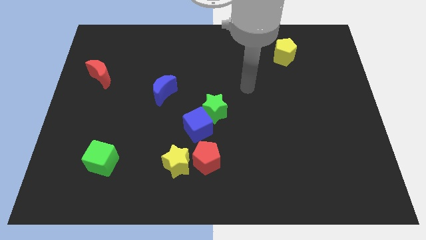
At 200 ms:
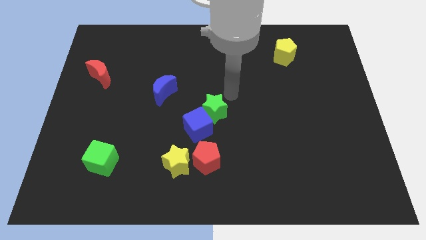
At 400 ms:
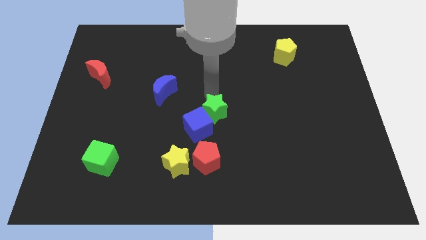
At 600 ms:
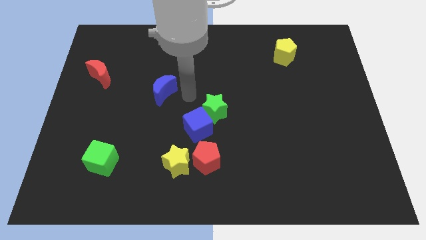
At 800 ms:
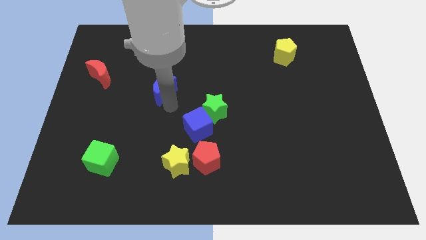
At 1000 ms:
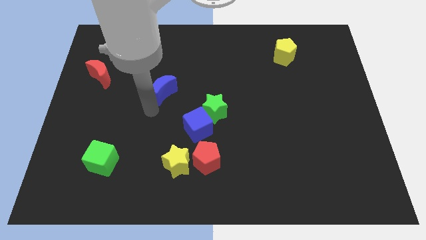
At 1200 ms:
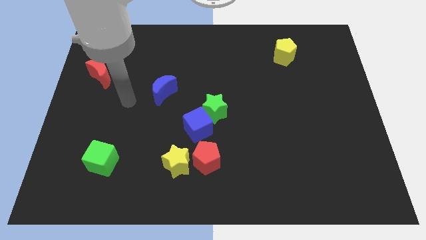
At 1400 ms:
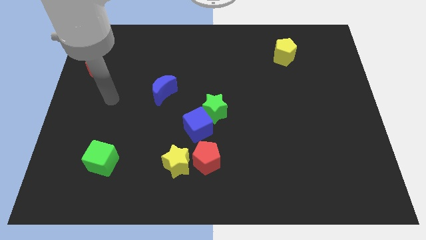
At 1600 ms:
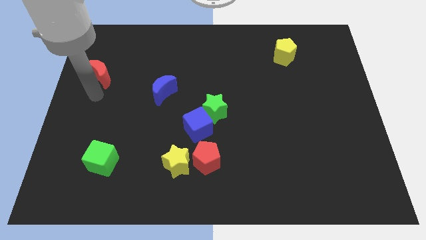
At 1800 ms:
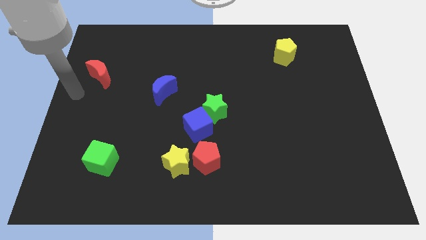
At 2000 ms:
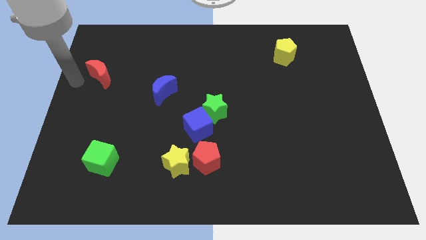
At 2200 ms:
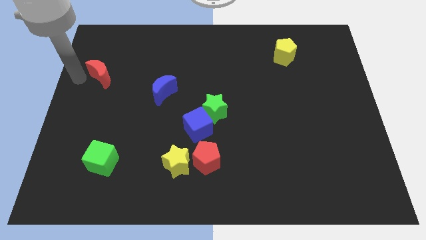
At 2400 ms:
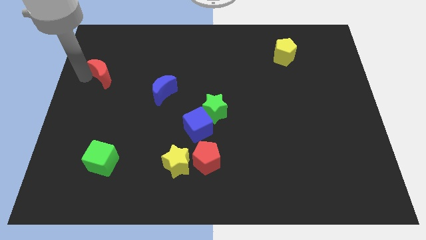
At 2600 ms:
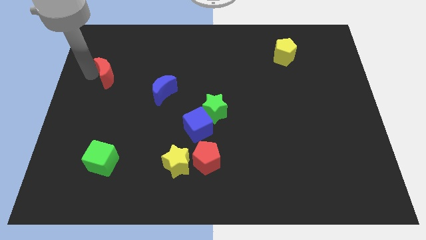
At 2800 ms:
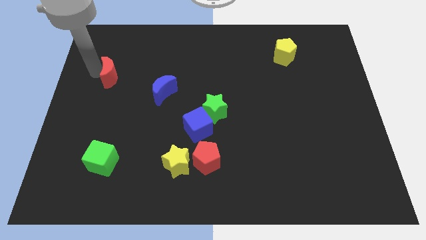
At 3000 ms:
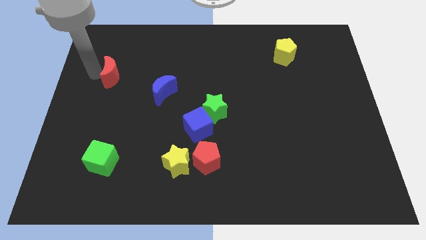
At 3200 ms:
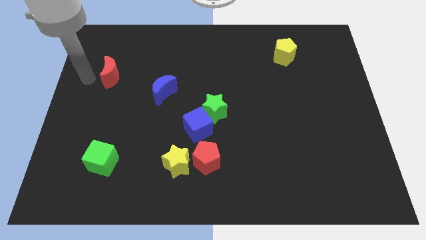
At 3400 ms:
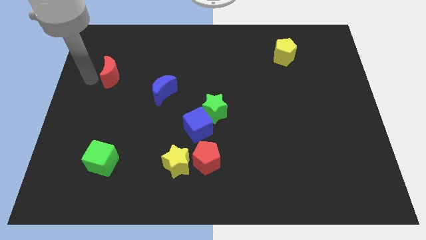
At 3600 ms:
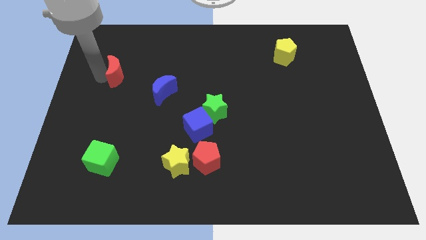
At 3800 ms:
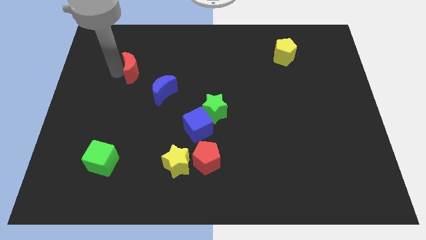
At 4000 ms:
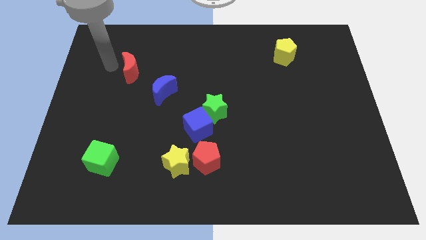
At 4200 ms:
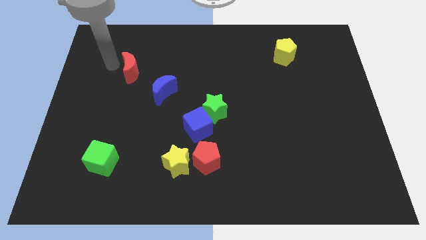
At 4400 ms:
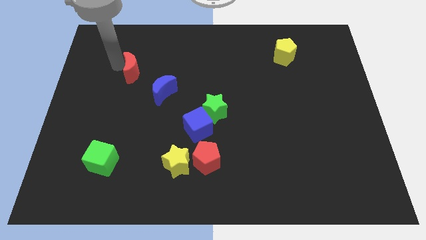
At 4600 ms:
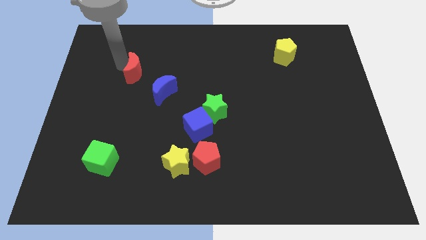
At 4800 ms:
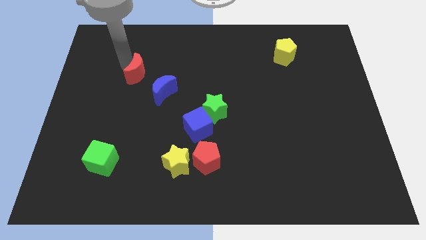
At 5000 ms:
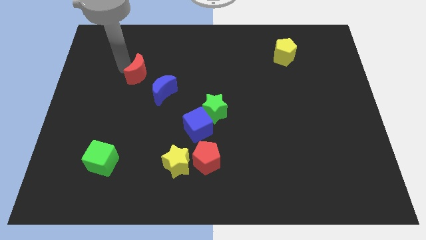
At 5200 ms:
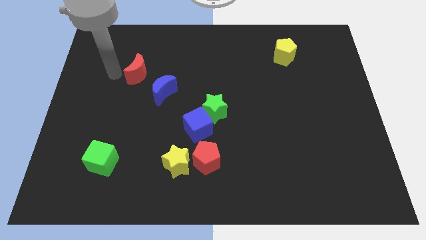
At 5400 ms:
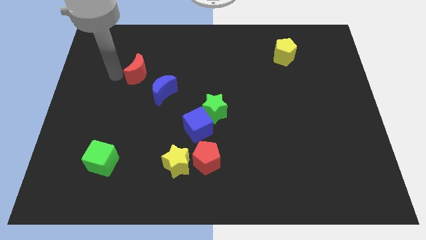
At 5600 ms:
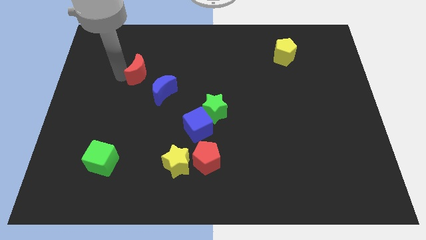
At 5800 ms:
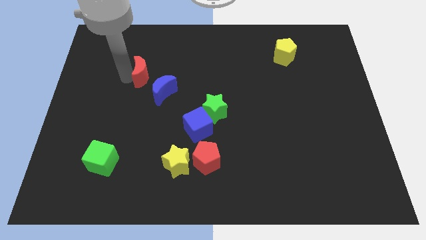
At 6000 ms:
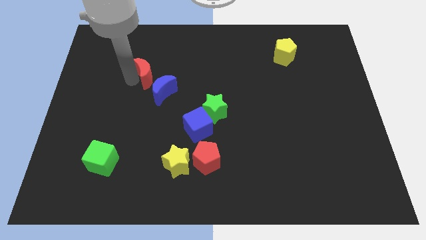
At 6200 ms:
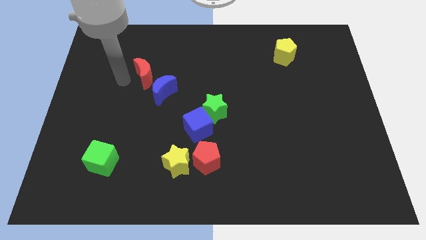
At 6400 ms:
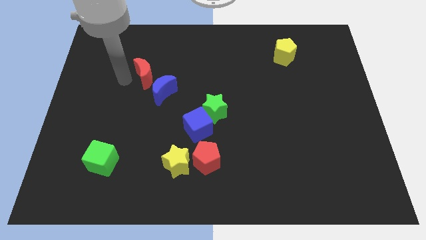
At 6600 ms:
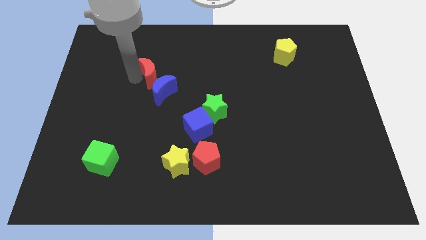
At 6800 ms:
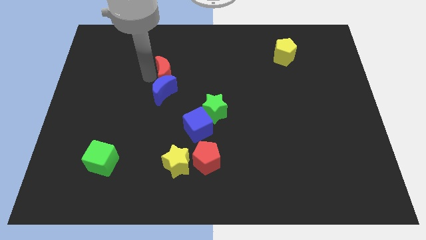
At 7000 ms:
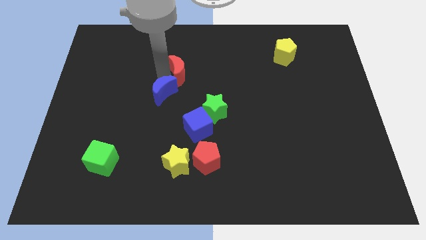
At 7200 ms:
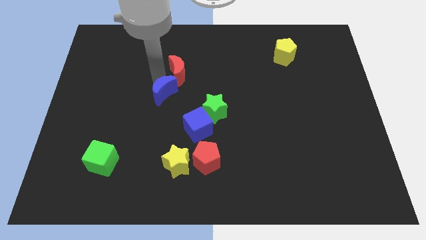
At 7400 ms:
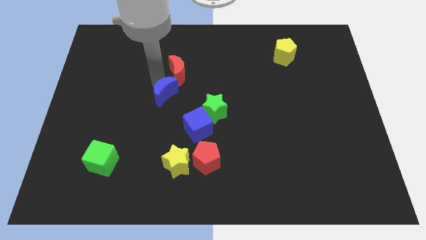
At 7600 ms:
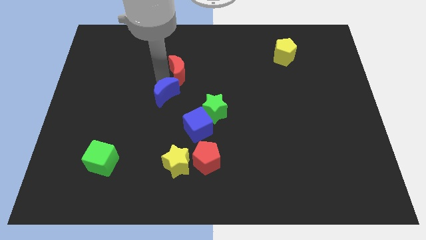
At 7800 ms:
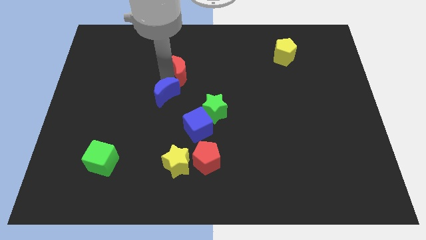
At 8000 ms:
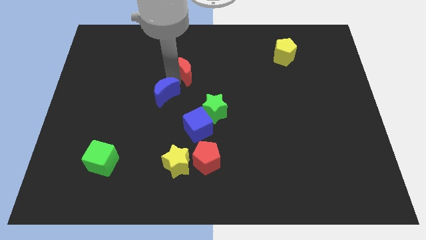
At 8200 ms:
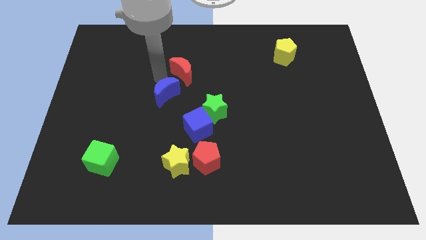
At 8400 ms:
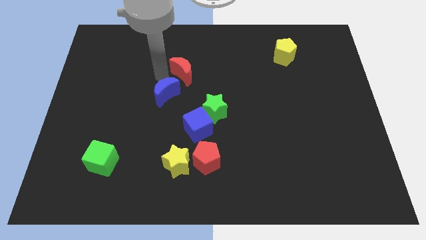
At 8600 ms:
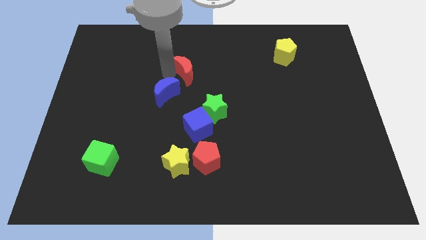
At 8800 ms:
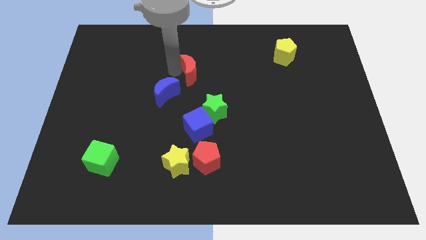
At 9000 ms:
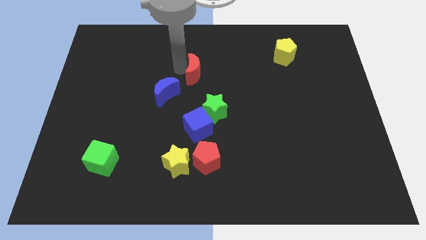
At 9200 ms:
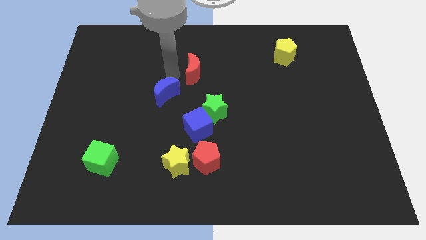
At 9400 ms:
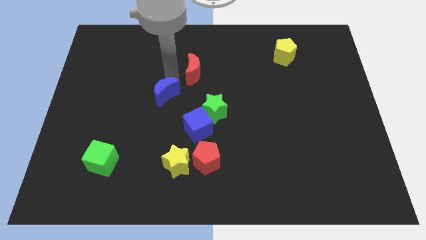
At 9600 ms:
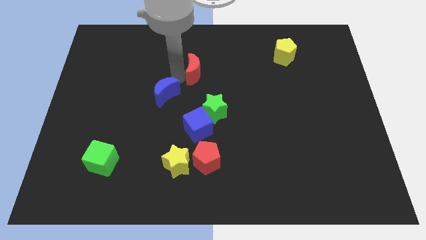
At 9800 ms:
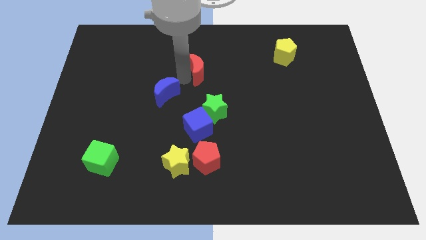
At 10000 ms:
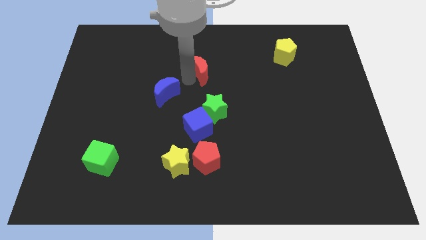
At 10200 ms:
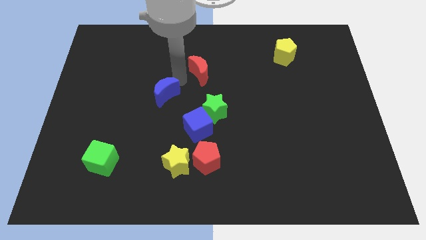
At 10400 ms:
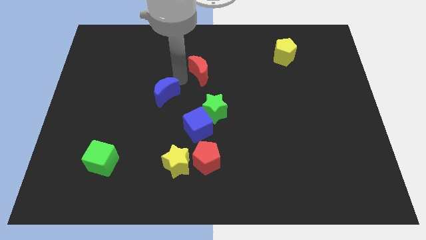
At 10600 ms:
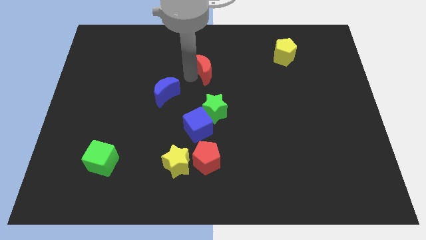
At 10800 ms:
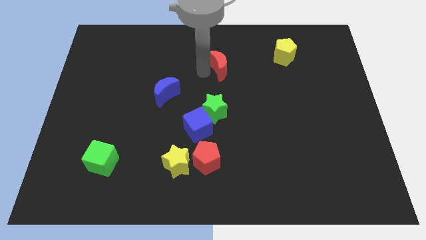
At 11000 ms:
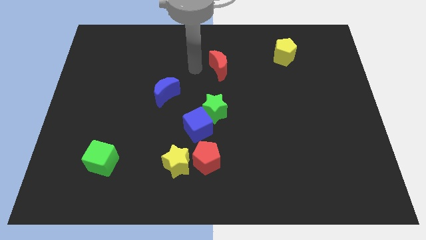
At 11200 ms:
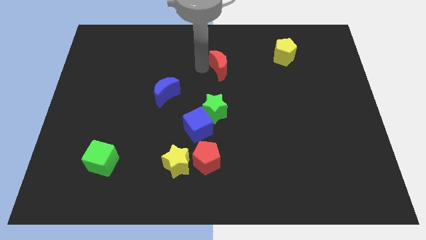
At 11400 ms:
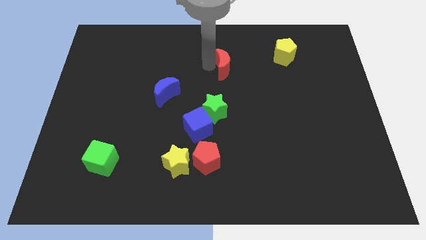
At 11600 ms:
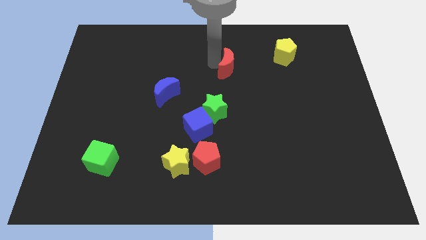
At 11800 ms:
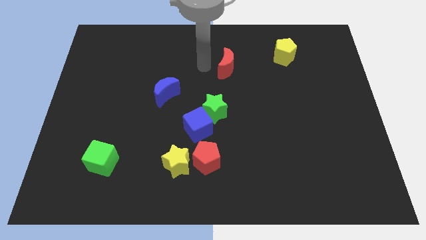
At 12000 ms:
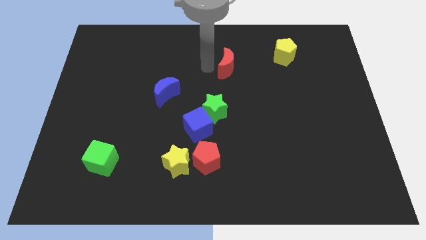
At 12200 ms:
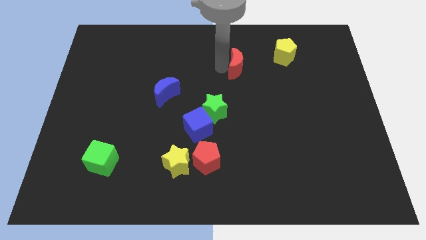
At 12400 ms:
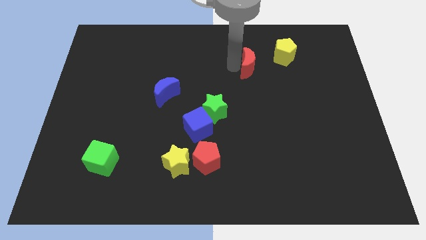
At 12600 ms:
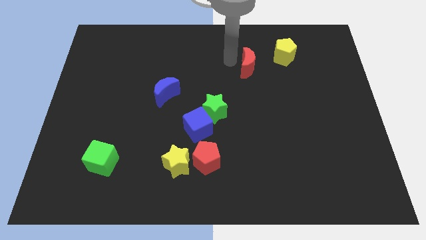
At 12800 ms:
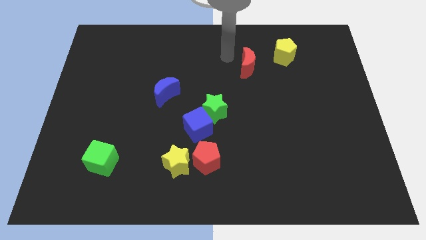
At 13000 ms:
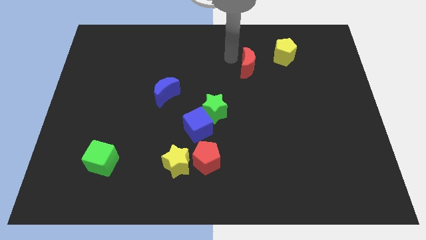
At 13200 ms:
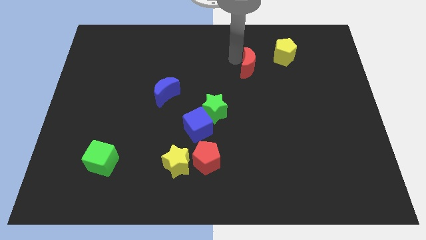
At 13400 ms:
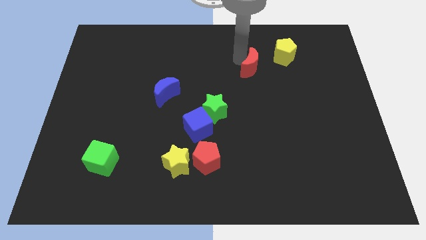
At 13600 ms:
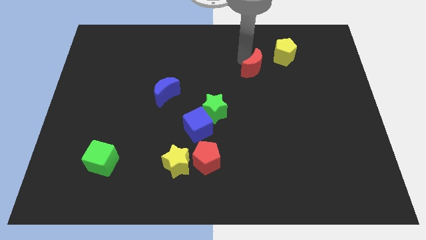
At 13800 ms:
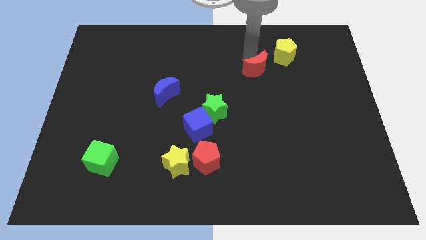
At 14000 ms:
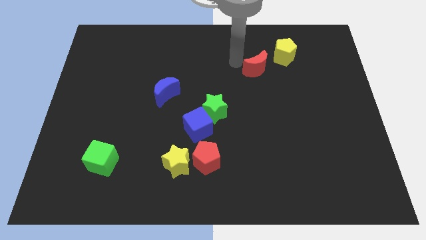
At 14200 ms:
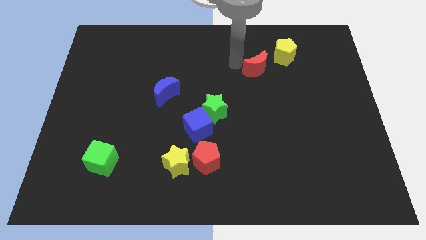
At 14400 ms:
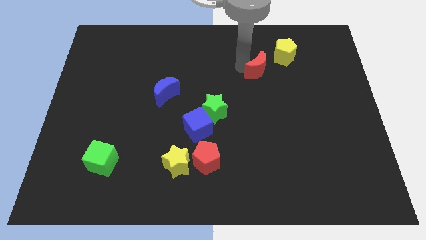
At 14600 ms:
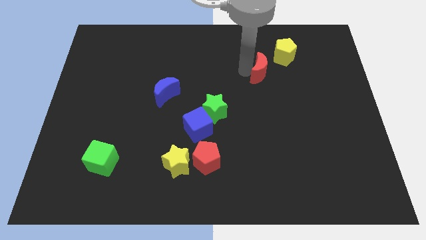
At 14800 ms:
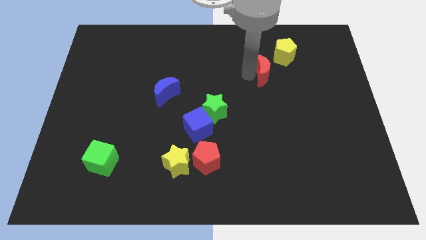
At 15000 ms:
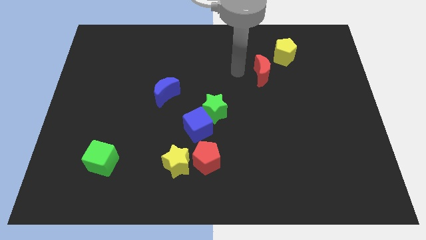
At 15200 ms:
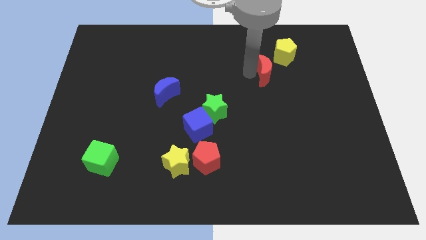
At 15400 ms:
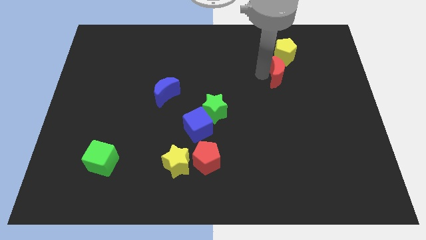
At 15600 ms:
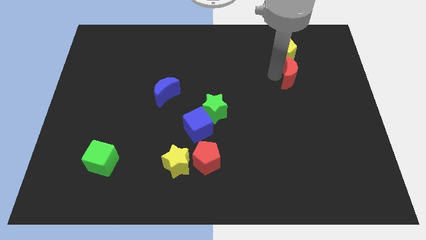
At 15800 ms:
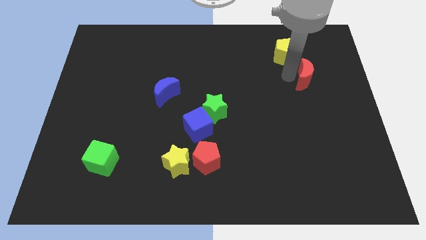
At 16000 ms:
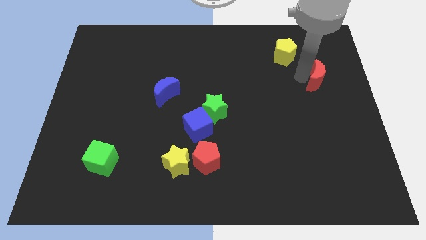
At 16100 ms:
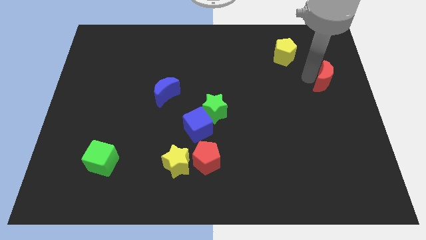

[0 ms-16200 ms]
push the red moon to the right side of the board
